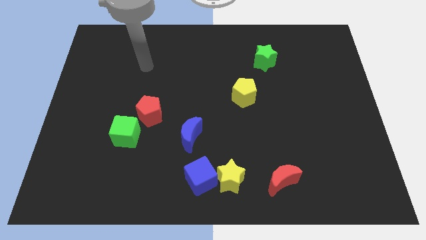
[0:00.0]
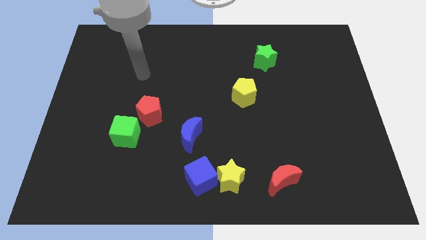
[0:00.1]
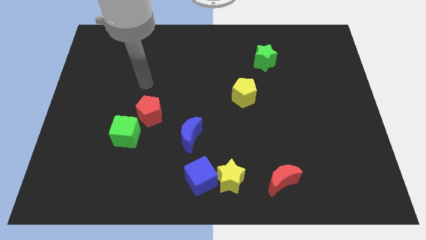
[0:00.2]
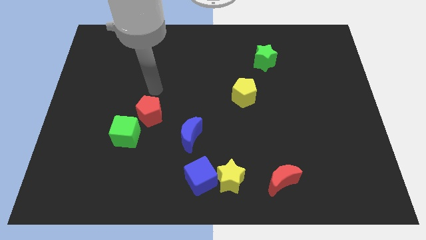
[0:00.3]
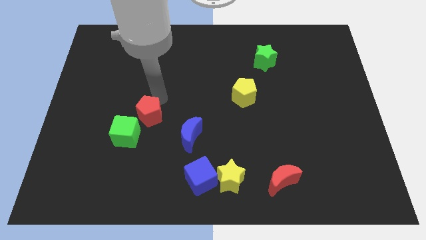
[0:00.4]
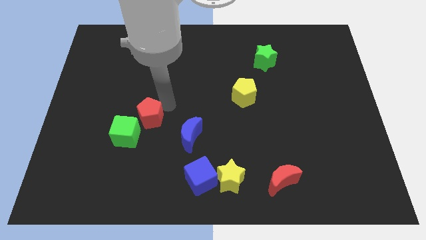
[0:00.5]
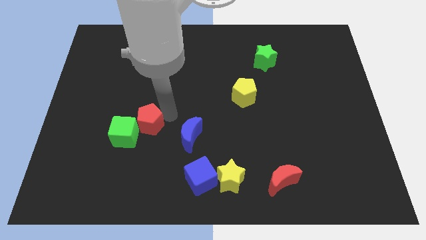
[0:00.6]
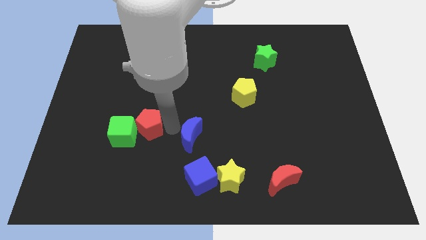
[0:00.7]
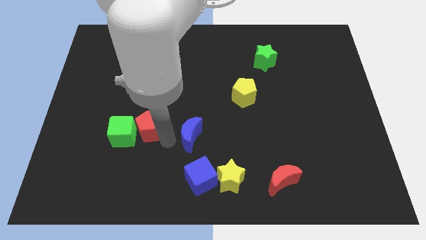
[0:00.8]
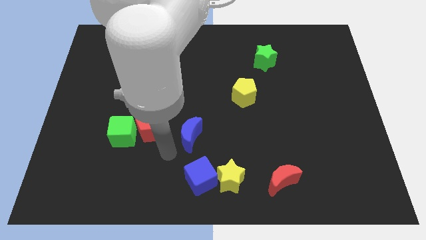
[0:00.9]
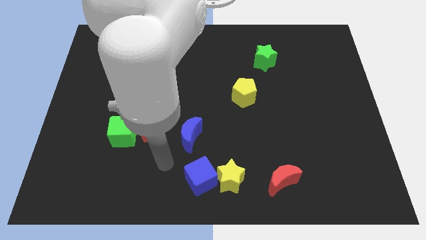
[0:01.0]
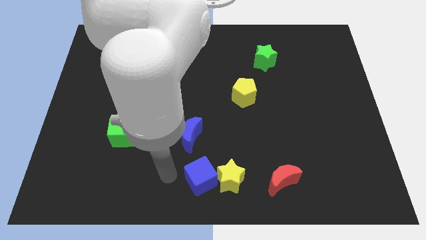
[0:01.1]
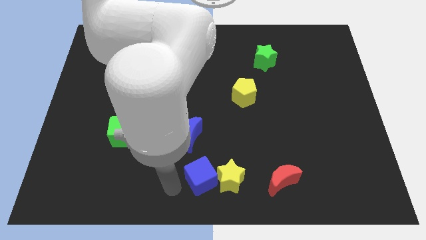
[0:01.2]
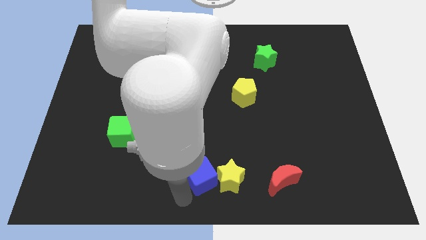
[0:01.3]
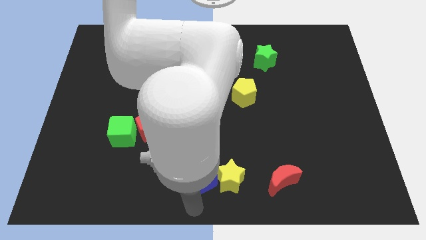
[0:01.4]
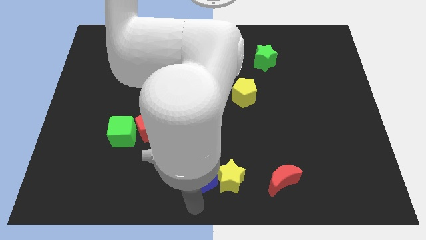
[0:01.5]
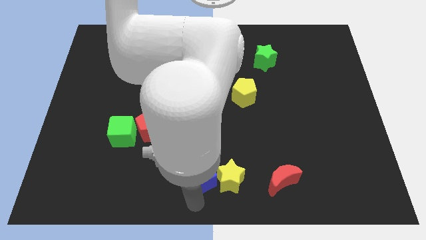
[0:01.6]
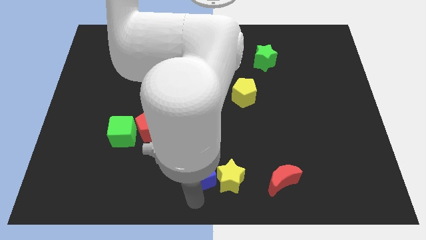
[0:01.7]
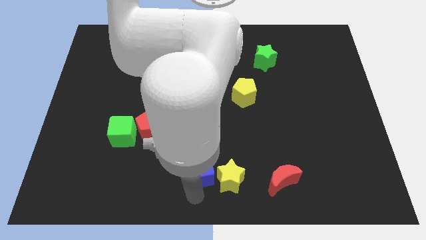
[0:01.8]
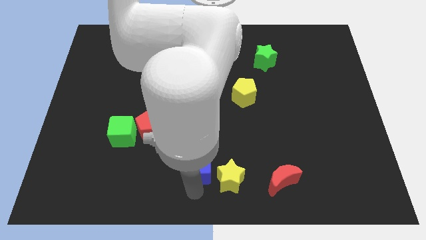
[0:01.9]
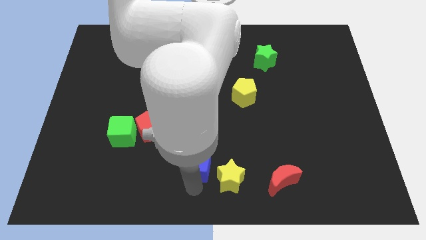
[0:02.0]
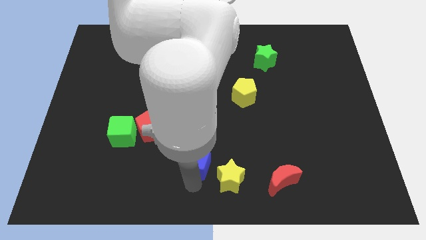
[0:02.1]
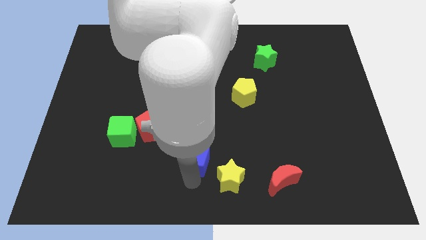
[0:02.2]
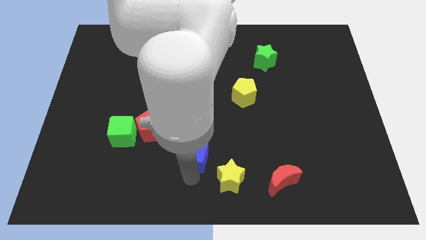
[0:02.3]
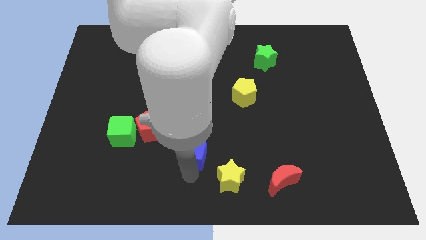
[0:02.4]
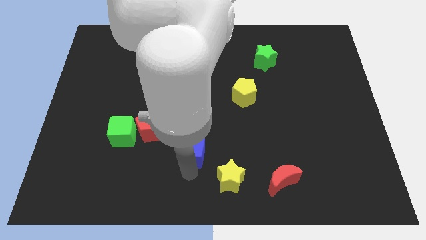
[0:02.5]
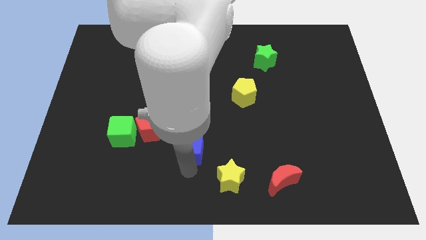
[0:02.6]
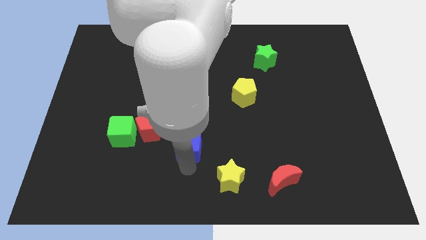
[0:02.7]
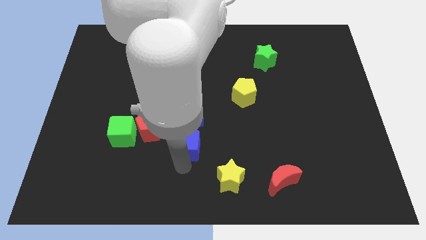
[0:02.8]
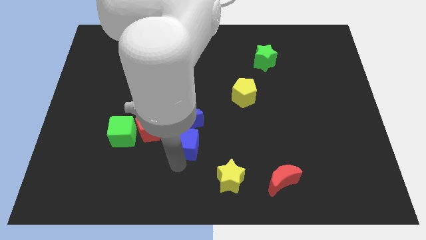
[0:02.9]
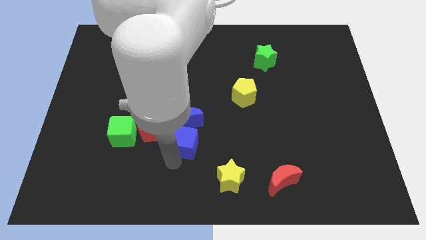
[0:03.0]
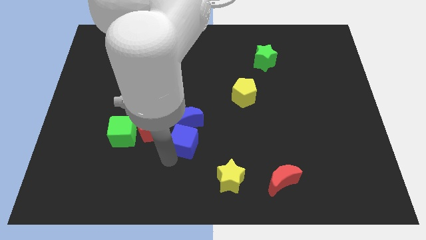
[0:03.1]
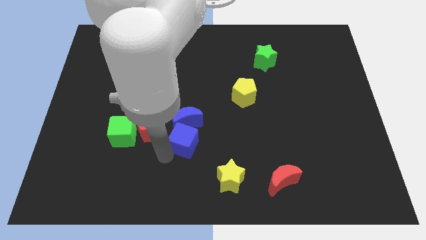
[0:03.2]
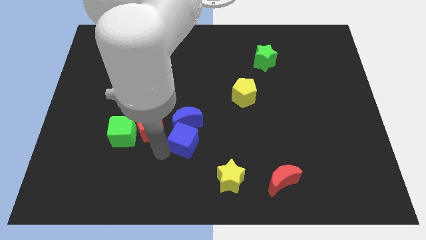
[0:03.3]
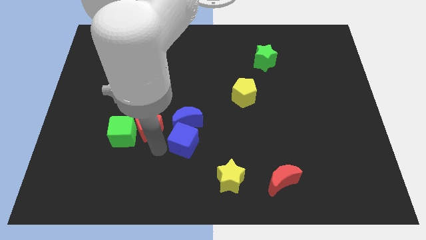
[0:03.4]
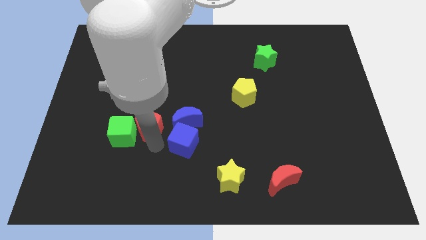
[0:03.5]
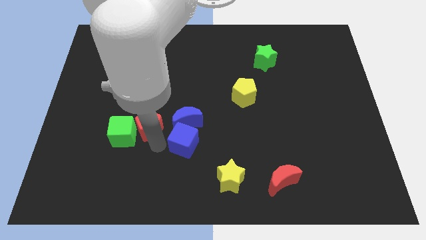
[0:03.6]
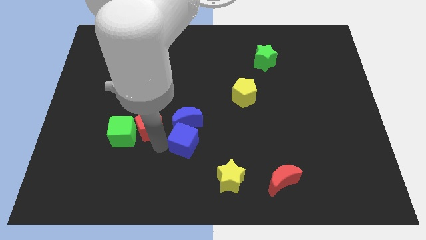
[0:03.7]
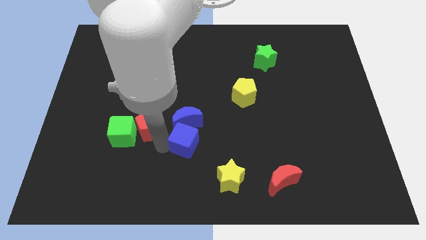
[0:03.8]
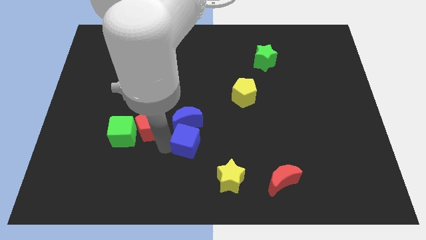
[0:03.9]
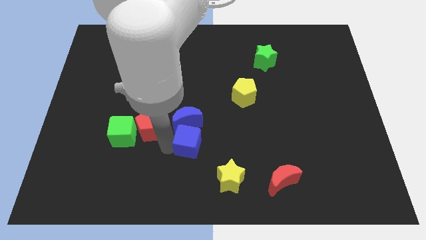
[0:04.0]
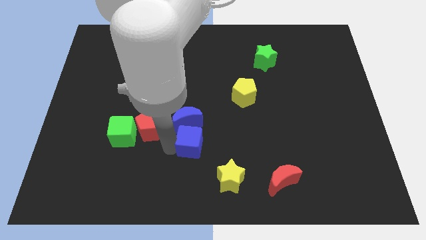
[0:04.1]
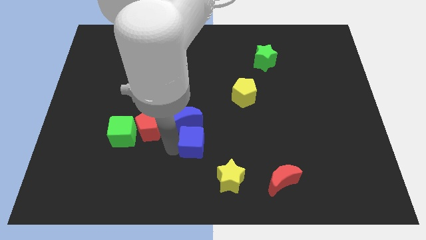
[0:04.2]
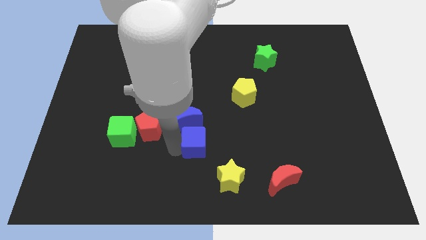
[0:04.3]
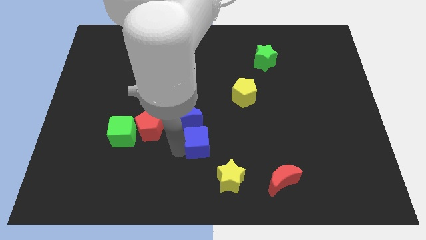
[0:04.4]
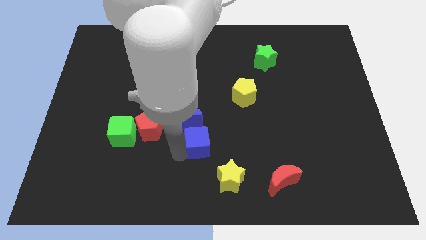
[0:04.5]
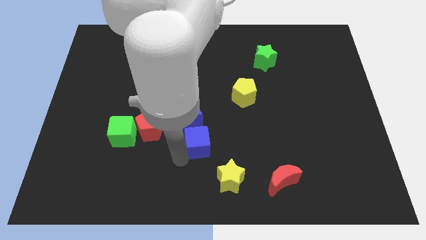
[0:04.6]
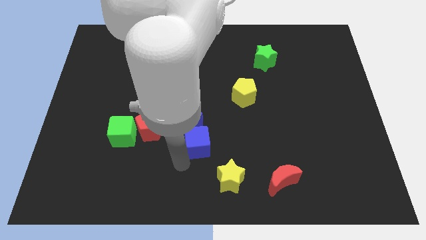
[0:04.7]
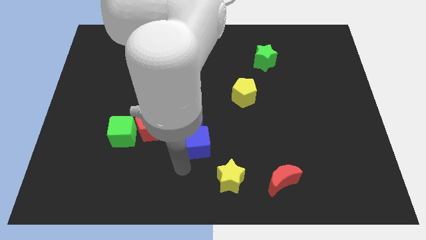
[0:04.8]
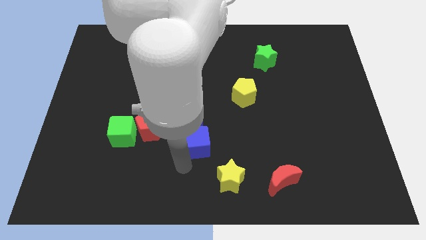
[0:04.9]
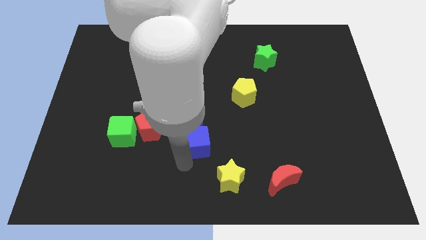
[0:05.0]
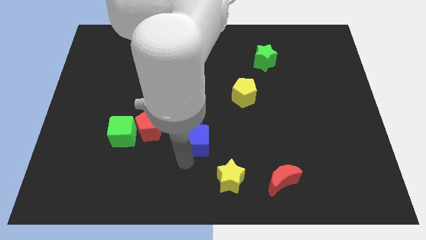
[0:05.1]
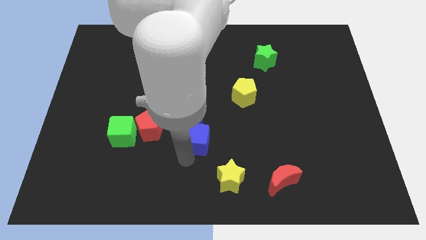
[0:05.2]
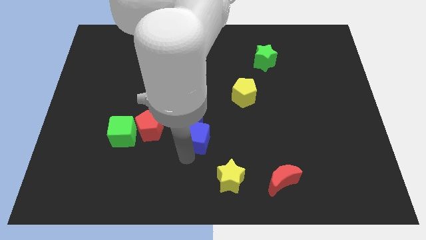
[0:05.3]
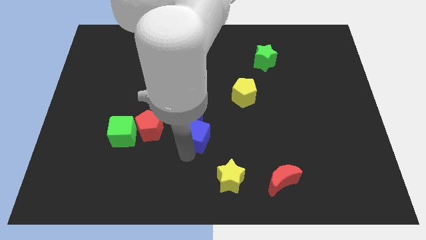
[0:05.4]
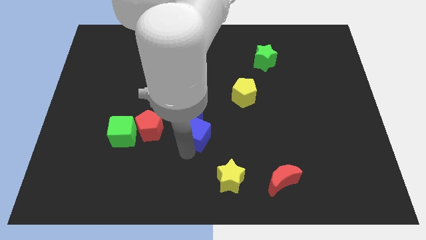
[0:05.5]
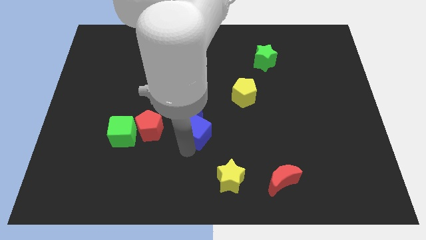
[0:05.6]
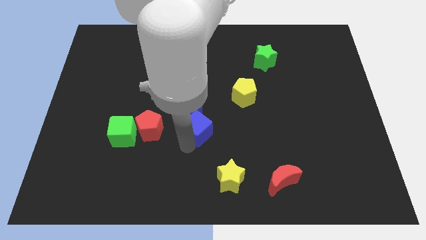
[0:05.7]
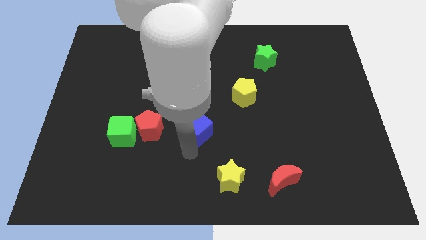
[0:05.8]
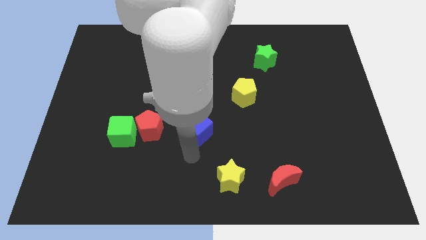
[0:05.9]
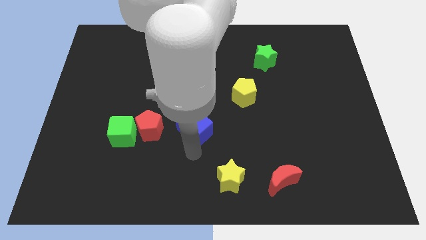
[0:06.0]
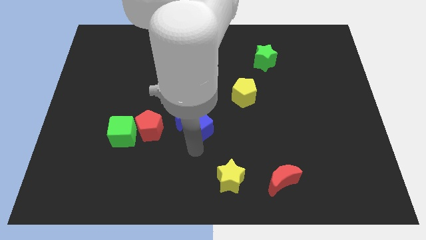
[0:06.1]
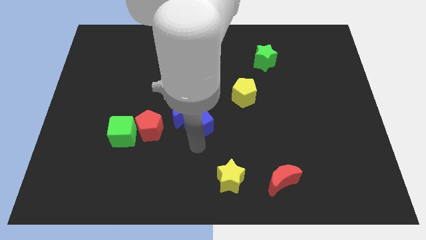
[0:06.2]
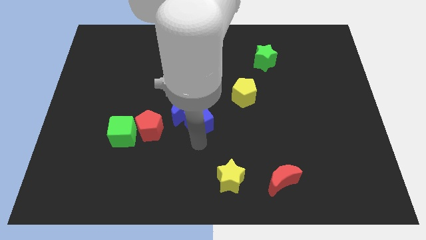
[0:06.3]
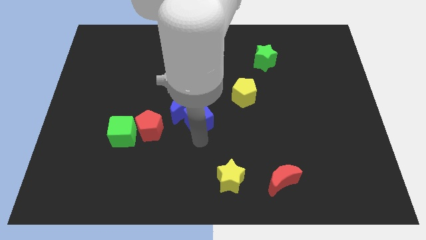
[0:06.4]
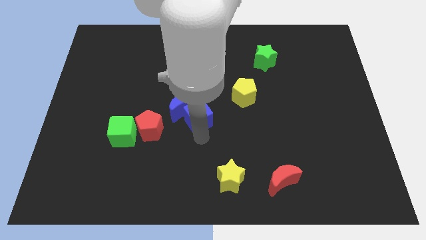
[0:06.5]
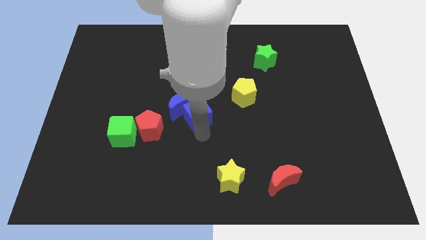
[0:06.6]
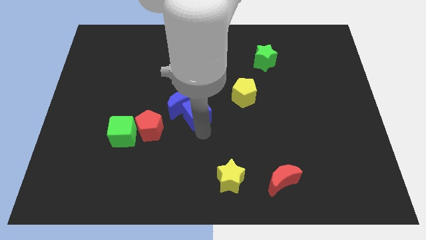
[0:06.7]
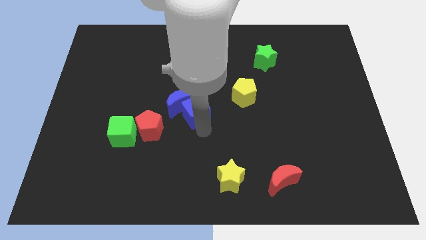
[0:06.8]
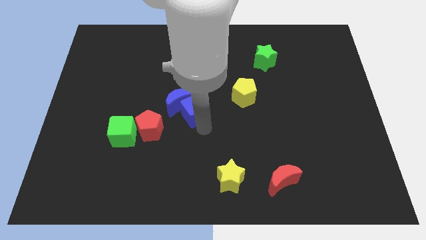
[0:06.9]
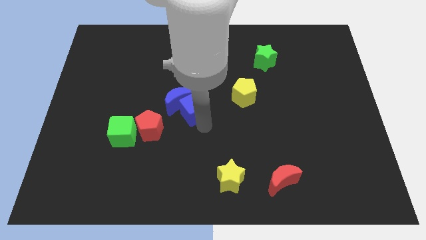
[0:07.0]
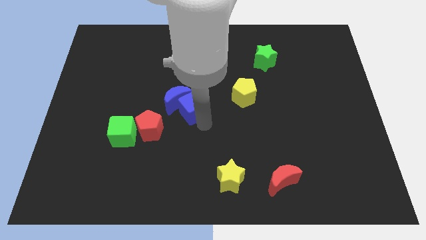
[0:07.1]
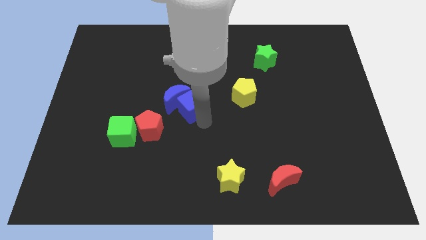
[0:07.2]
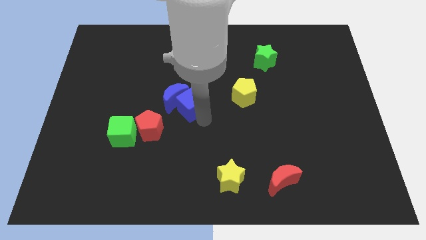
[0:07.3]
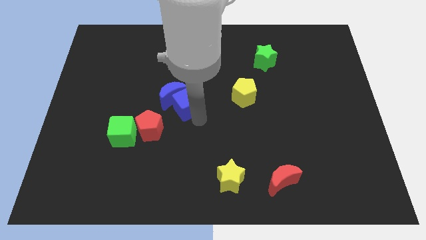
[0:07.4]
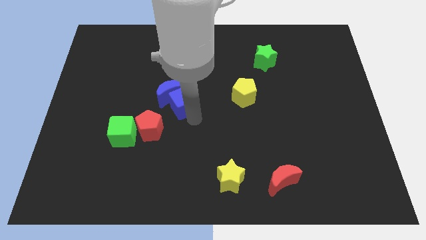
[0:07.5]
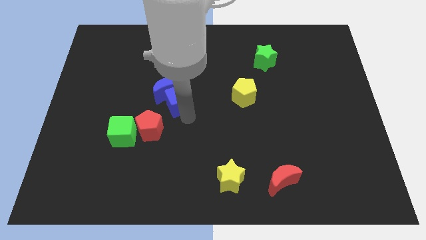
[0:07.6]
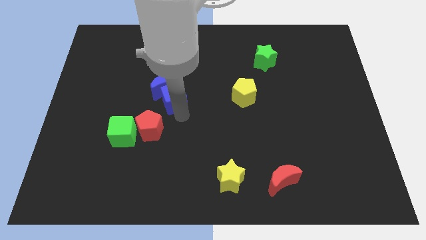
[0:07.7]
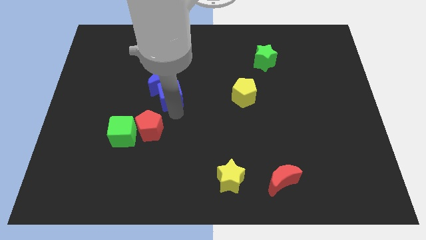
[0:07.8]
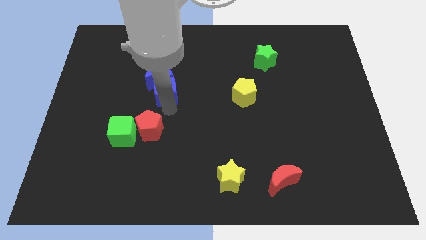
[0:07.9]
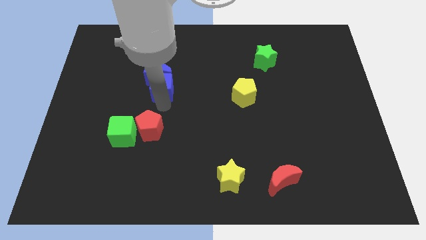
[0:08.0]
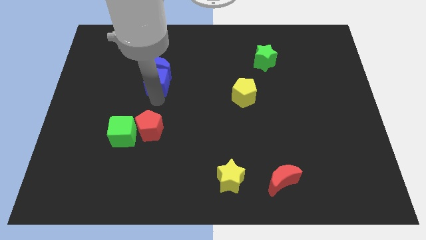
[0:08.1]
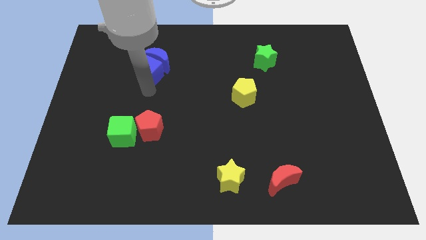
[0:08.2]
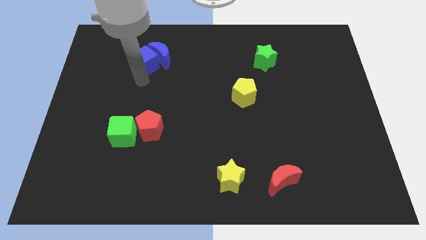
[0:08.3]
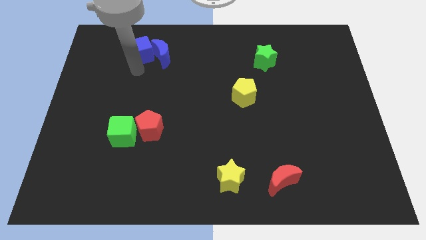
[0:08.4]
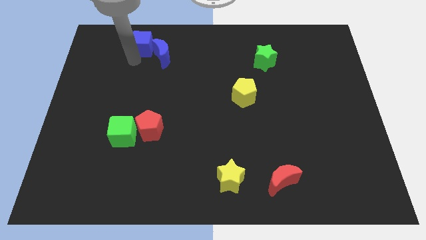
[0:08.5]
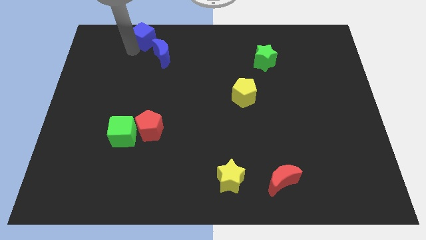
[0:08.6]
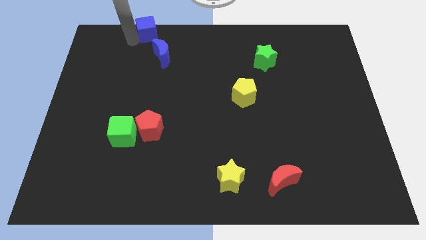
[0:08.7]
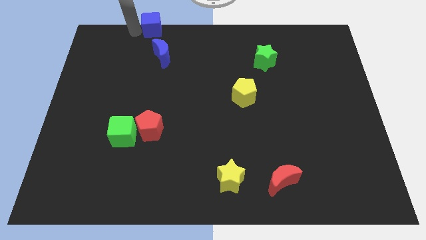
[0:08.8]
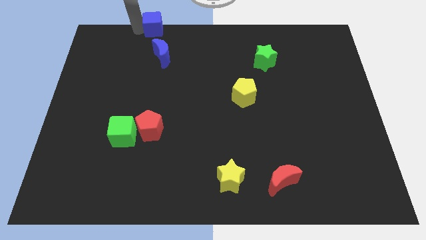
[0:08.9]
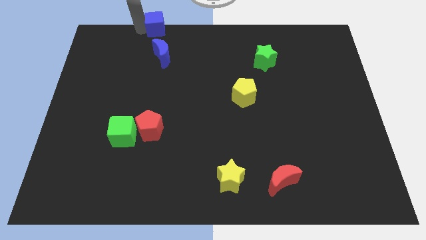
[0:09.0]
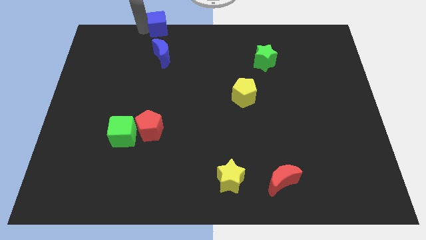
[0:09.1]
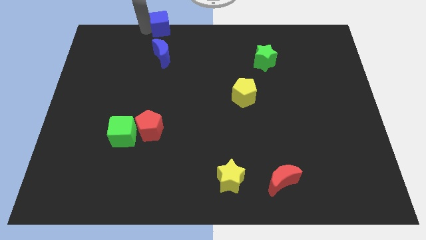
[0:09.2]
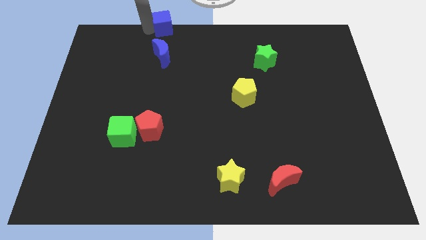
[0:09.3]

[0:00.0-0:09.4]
push the blue cube to the top side
